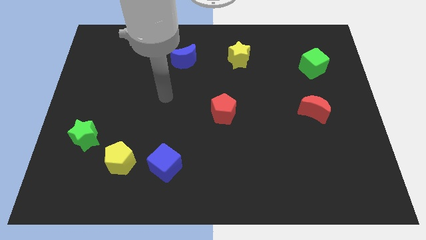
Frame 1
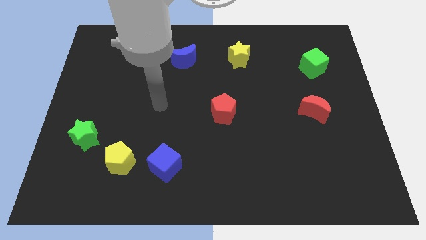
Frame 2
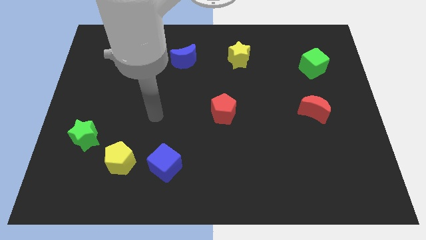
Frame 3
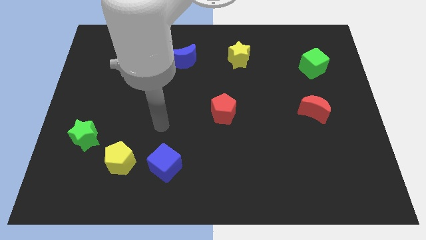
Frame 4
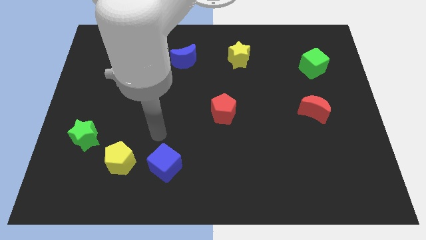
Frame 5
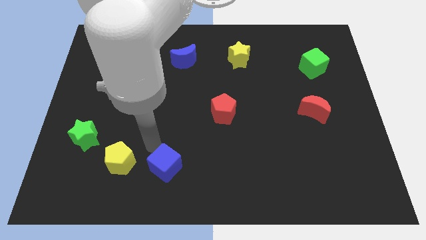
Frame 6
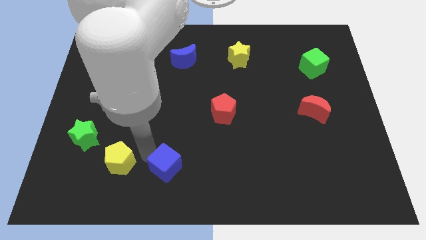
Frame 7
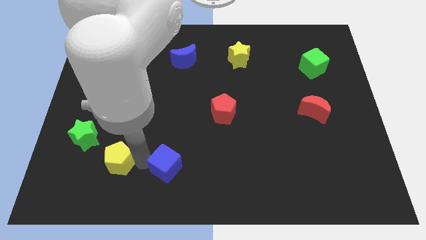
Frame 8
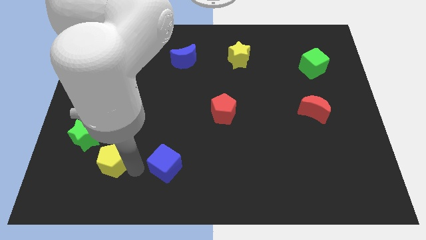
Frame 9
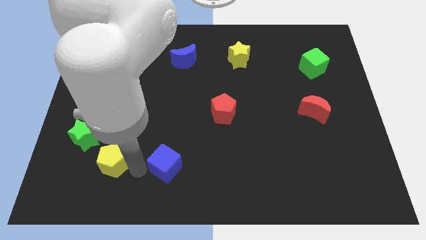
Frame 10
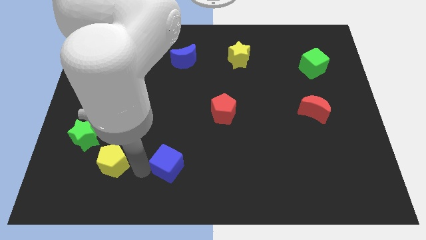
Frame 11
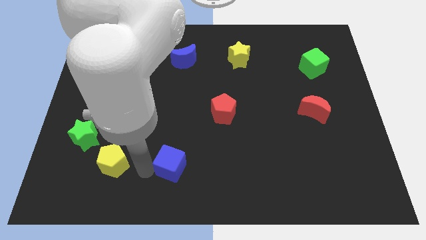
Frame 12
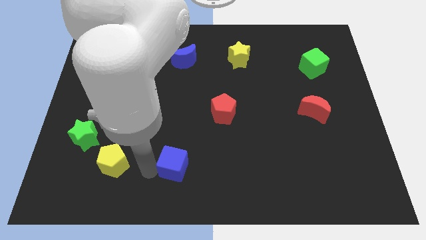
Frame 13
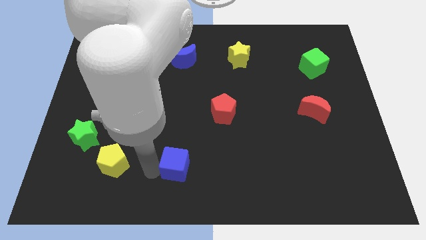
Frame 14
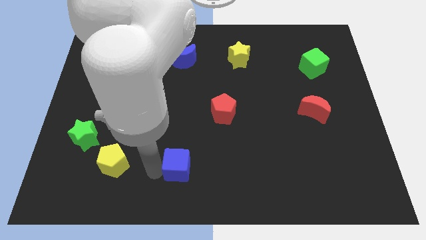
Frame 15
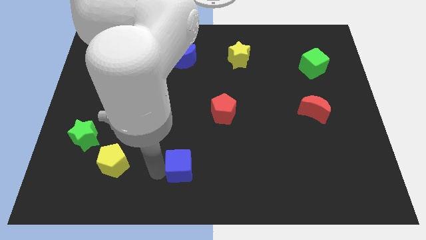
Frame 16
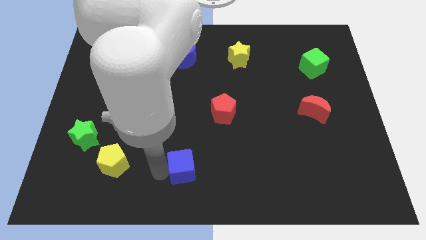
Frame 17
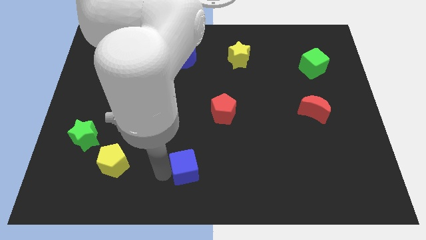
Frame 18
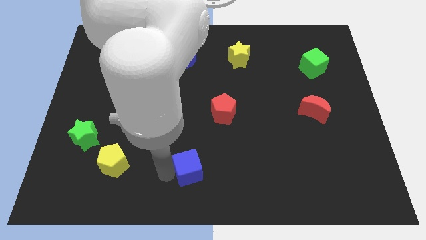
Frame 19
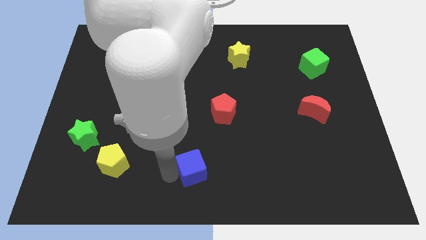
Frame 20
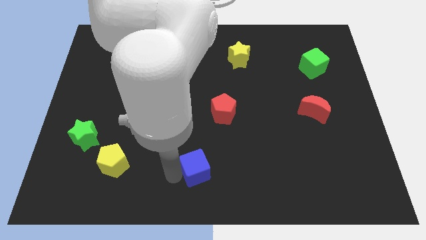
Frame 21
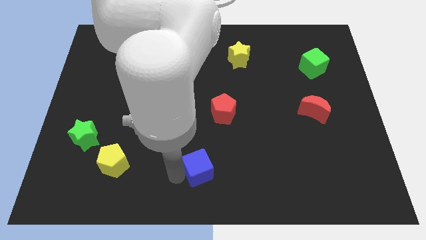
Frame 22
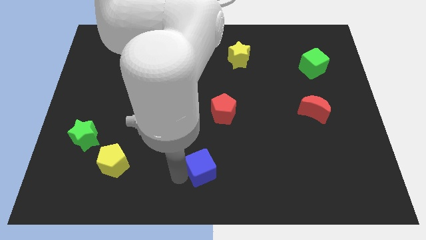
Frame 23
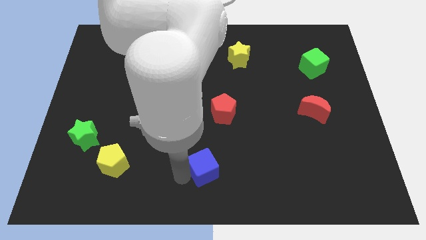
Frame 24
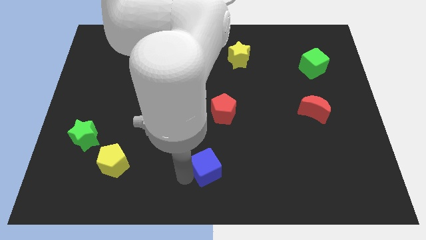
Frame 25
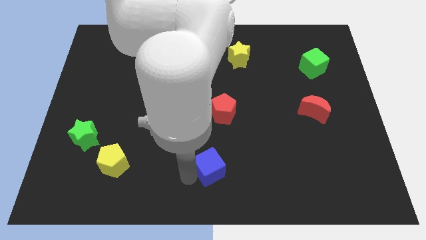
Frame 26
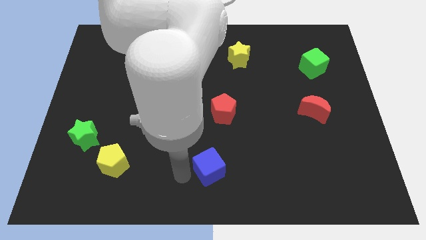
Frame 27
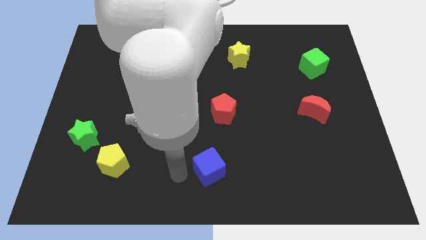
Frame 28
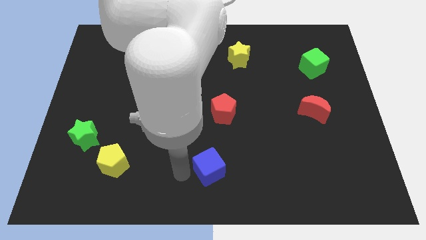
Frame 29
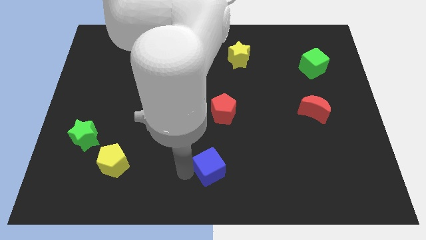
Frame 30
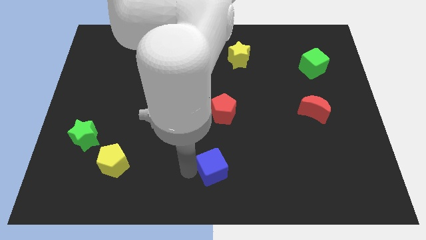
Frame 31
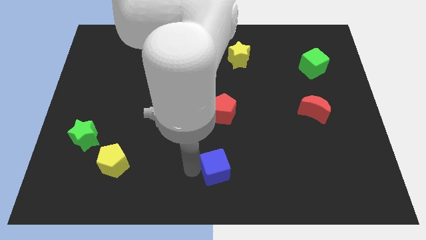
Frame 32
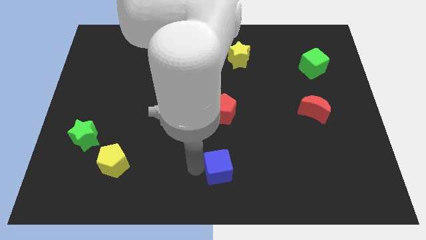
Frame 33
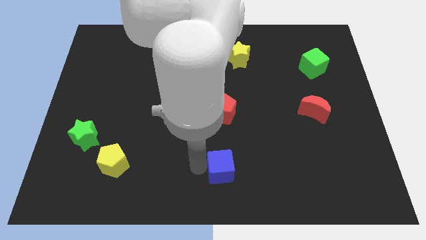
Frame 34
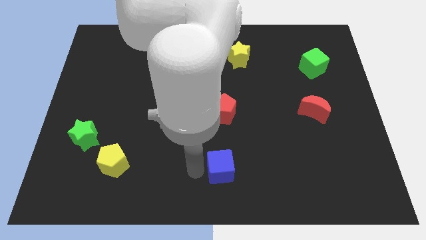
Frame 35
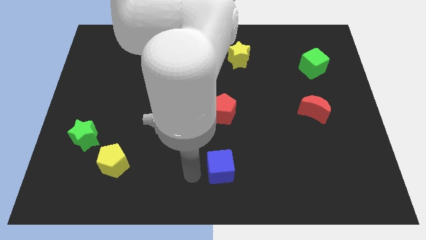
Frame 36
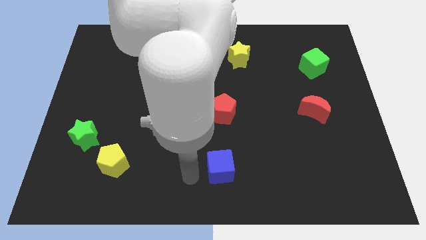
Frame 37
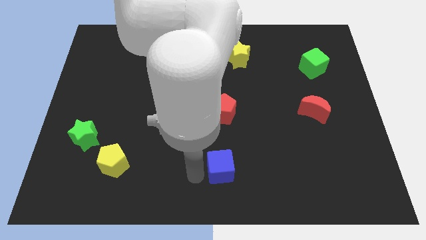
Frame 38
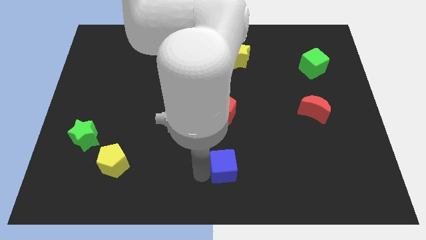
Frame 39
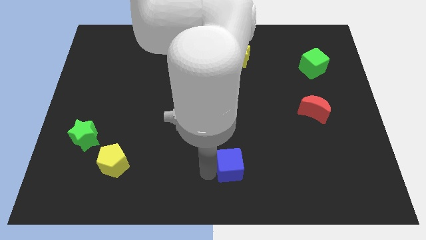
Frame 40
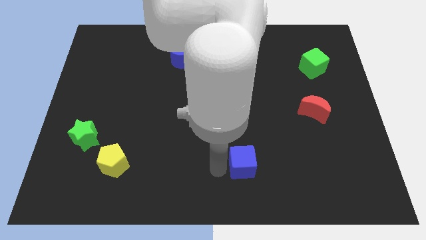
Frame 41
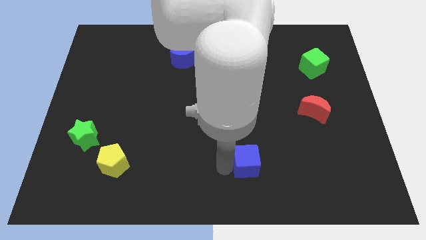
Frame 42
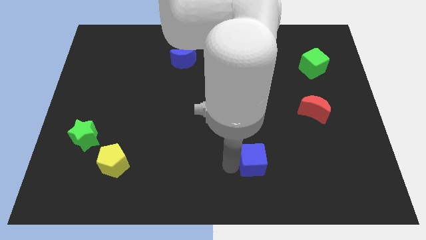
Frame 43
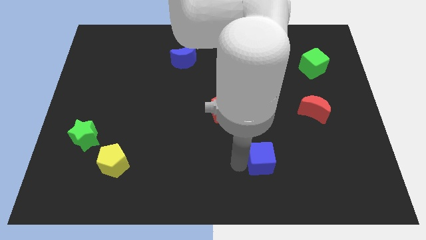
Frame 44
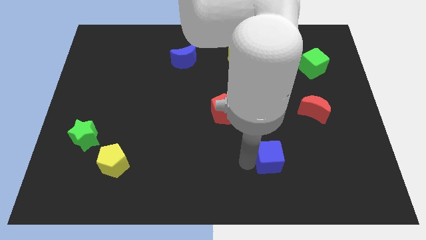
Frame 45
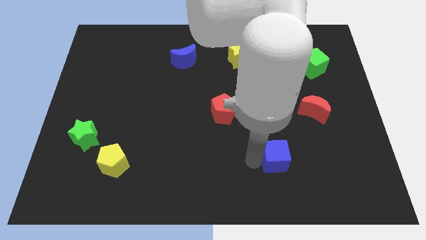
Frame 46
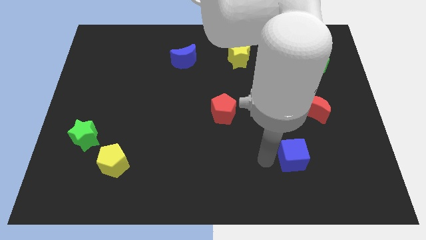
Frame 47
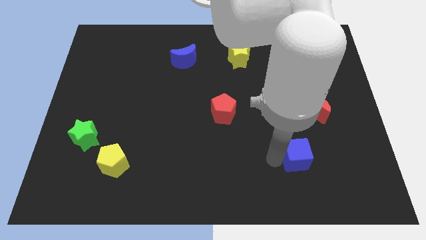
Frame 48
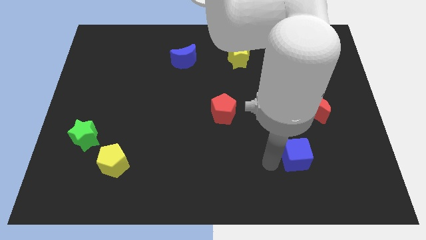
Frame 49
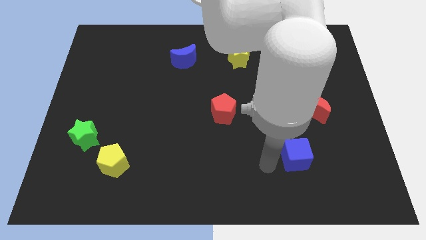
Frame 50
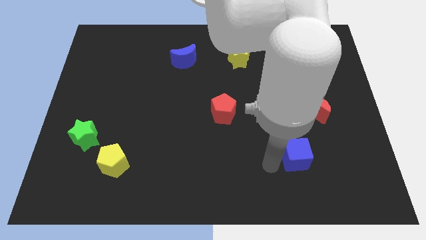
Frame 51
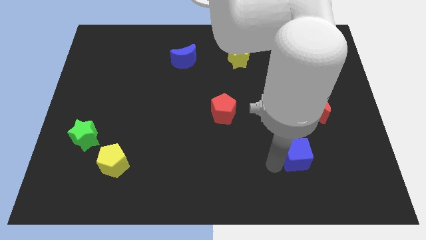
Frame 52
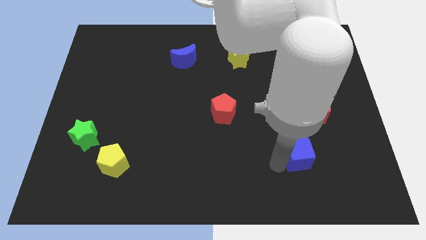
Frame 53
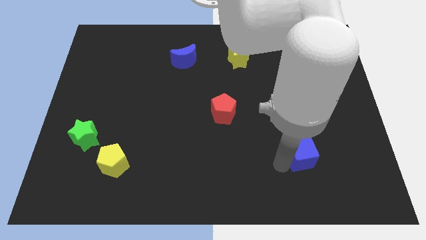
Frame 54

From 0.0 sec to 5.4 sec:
push the blue cube below the red moon

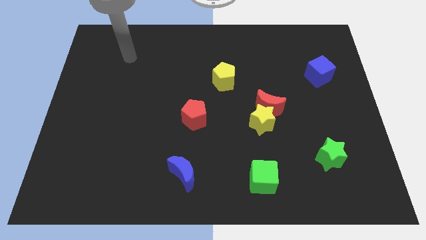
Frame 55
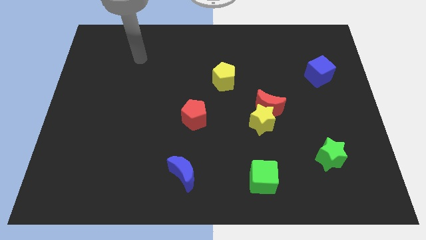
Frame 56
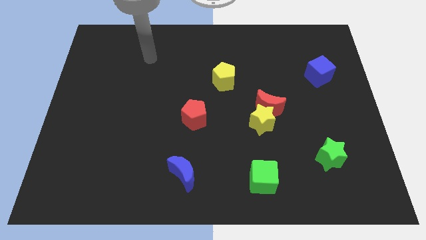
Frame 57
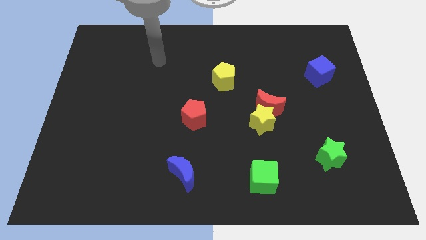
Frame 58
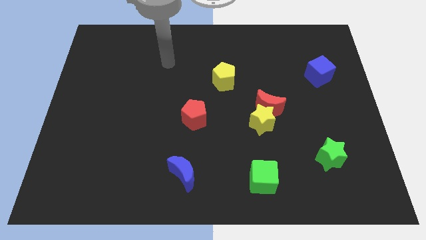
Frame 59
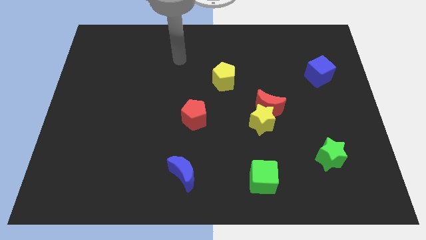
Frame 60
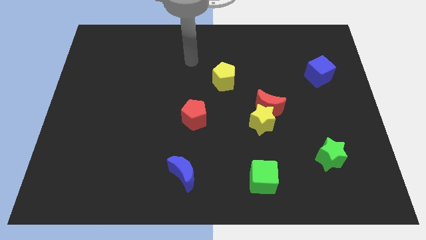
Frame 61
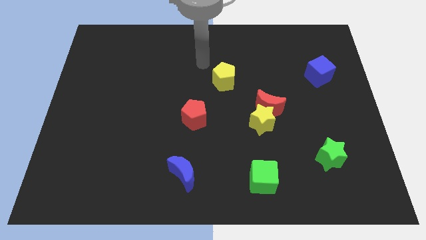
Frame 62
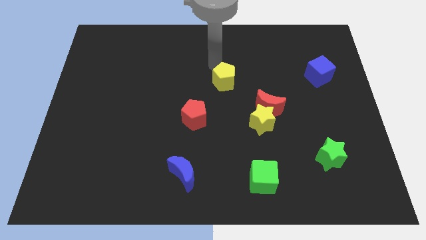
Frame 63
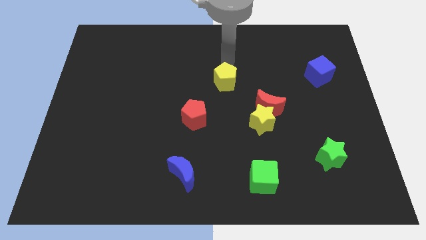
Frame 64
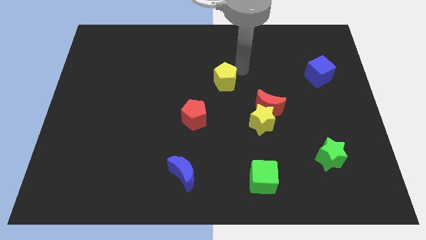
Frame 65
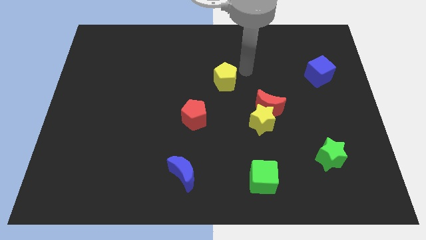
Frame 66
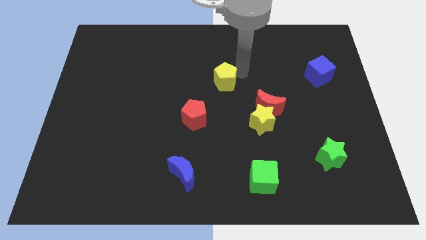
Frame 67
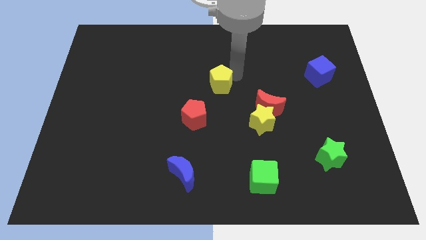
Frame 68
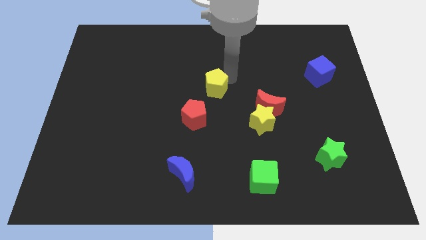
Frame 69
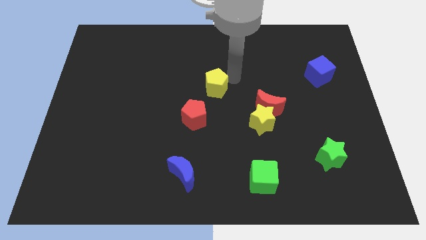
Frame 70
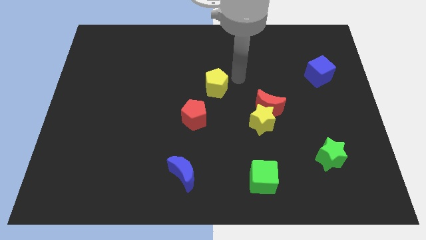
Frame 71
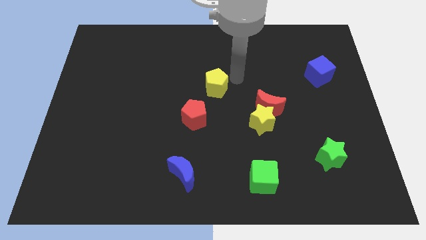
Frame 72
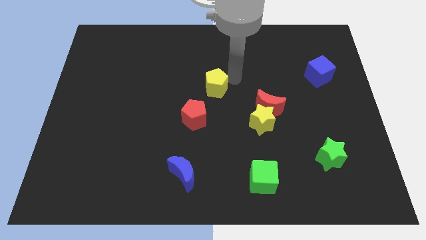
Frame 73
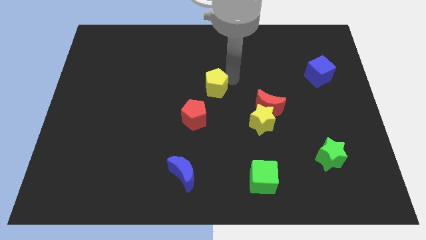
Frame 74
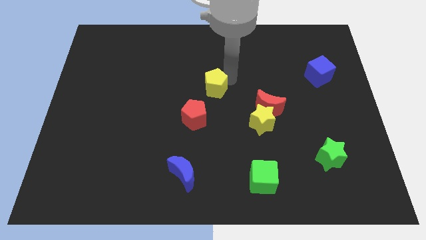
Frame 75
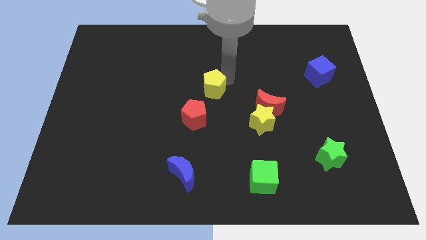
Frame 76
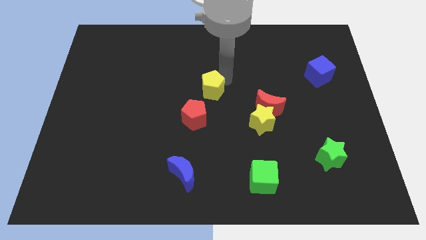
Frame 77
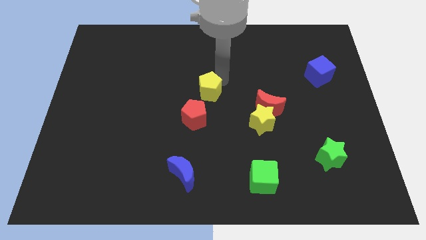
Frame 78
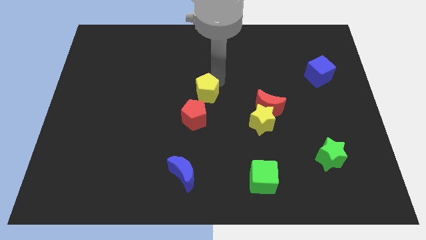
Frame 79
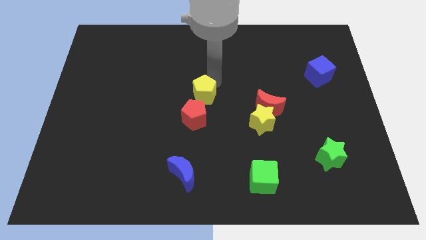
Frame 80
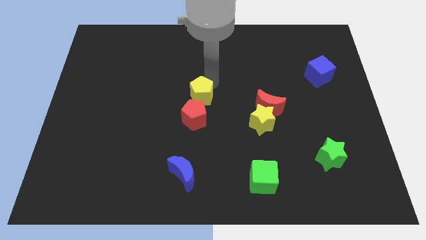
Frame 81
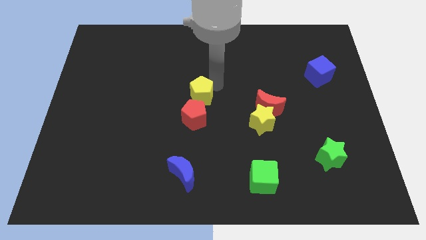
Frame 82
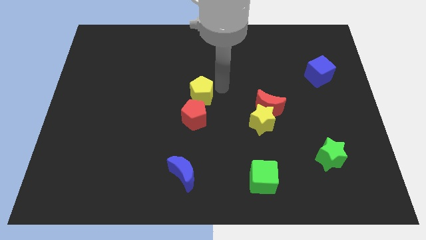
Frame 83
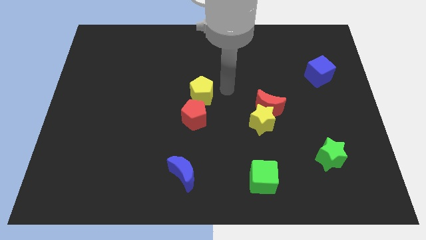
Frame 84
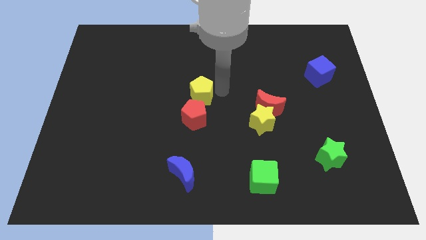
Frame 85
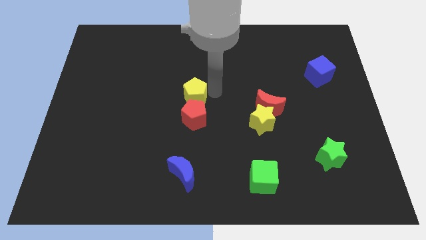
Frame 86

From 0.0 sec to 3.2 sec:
push the yellow pentagon to the top left side of the red pentagon
